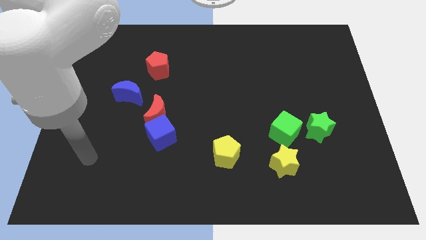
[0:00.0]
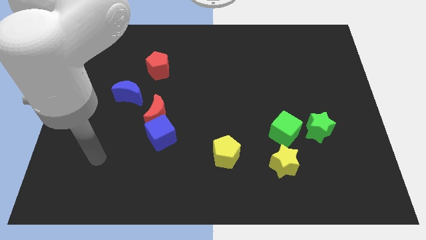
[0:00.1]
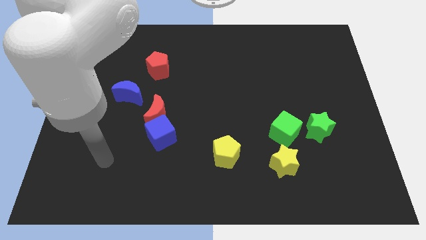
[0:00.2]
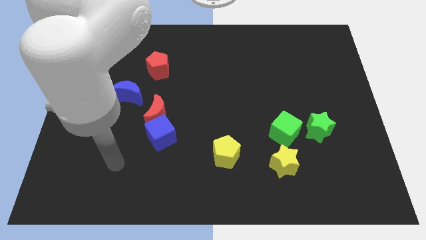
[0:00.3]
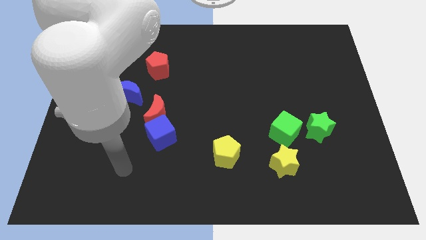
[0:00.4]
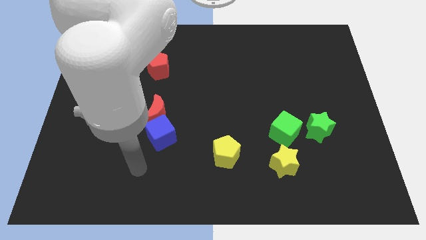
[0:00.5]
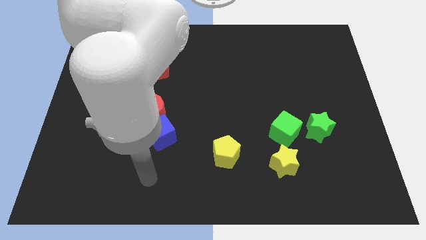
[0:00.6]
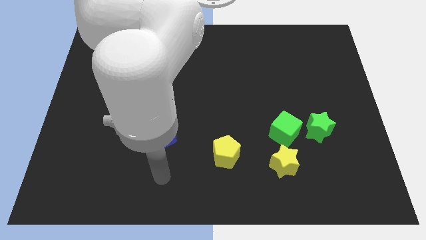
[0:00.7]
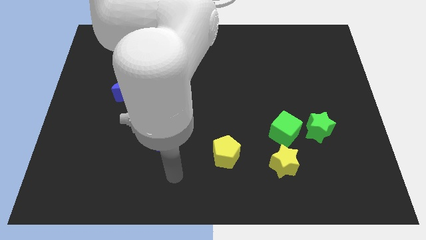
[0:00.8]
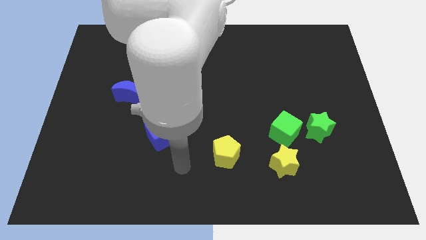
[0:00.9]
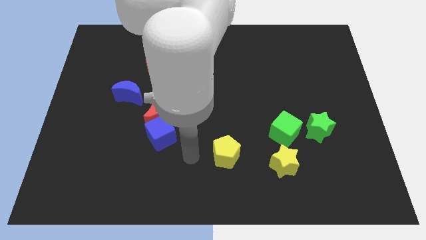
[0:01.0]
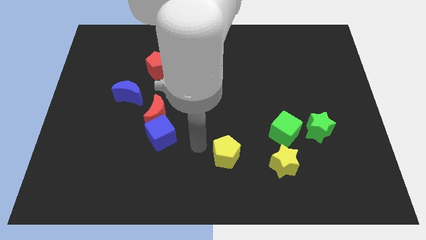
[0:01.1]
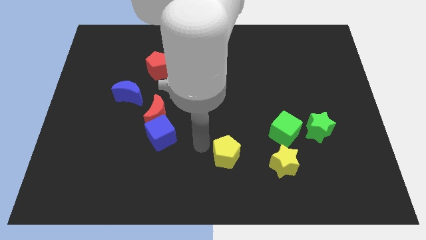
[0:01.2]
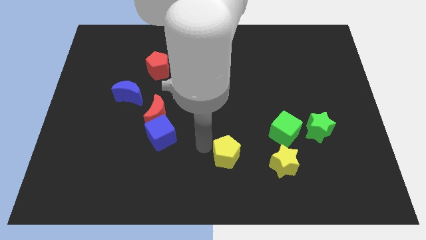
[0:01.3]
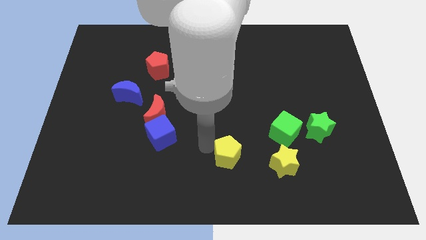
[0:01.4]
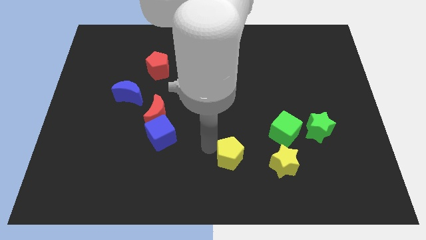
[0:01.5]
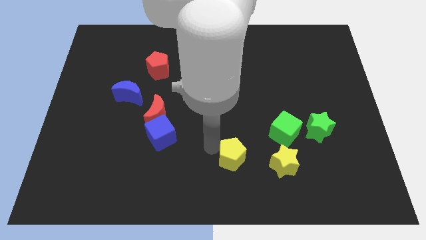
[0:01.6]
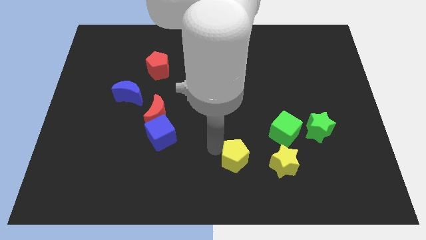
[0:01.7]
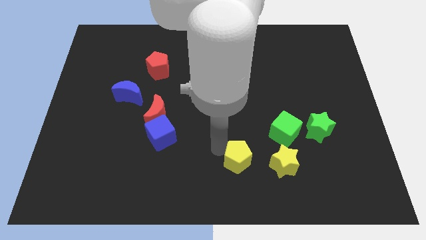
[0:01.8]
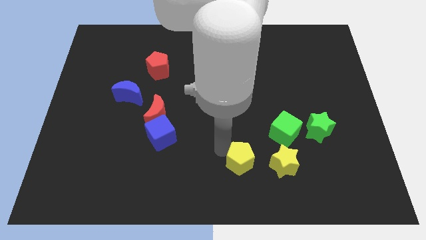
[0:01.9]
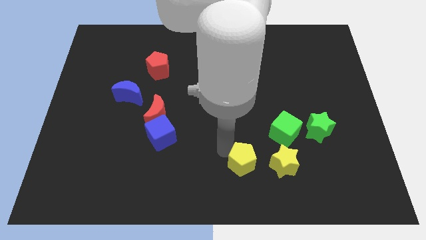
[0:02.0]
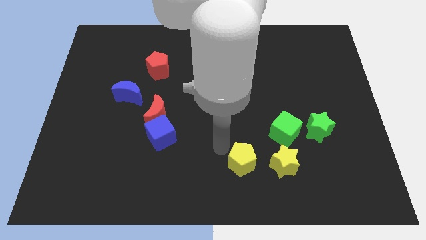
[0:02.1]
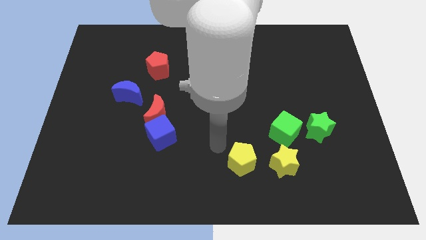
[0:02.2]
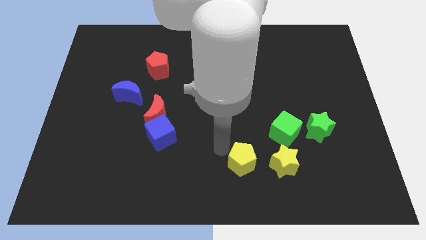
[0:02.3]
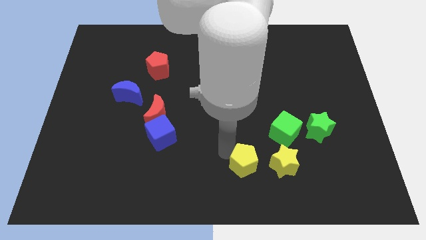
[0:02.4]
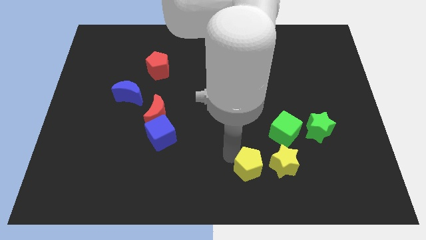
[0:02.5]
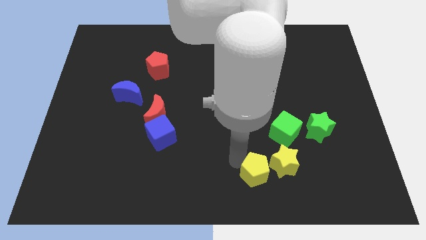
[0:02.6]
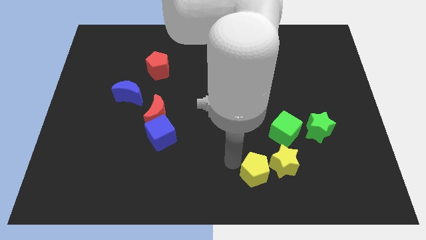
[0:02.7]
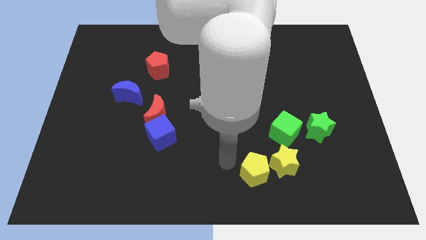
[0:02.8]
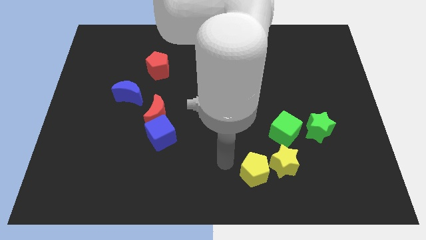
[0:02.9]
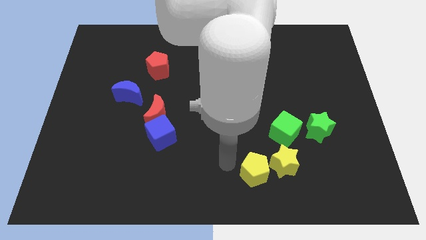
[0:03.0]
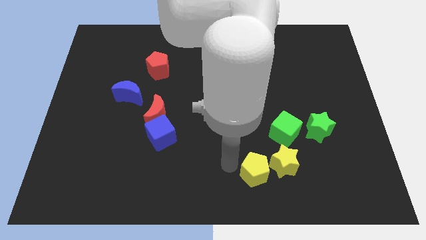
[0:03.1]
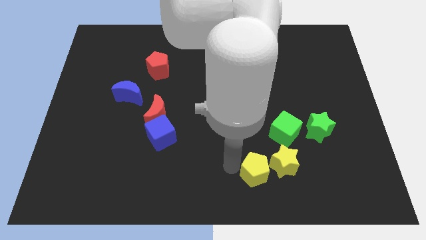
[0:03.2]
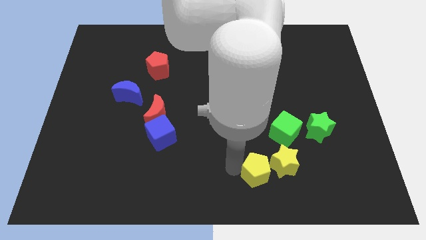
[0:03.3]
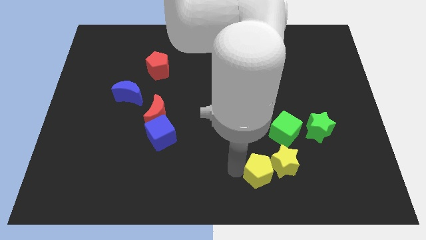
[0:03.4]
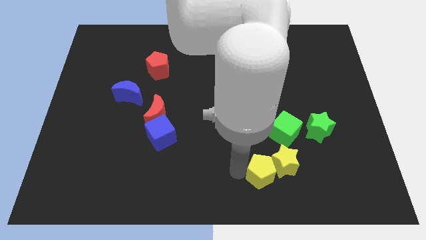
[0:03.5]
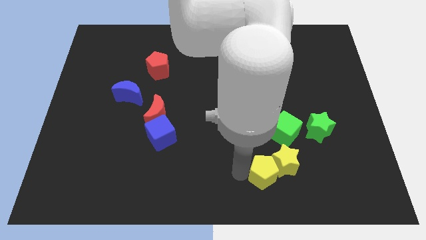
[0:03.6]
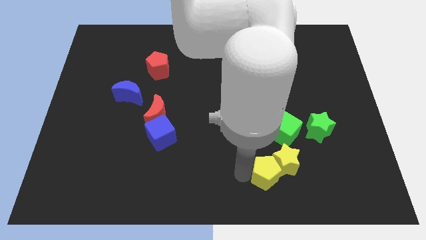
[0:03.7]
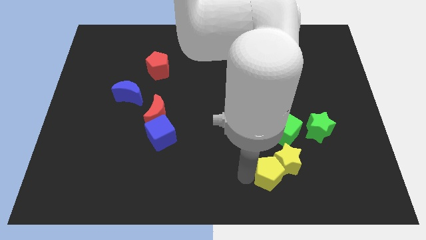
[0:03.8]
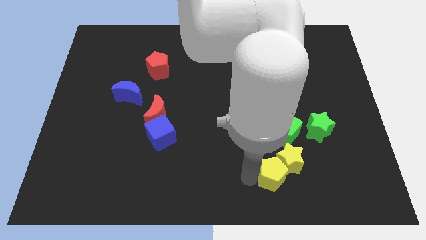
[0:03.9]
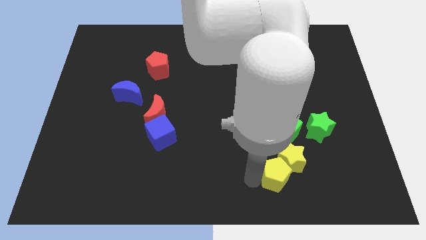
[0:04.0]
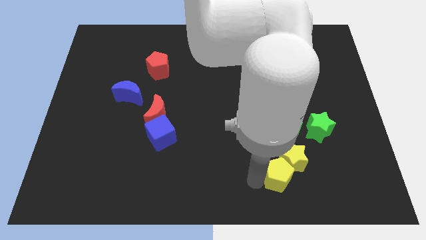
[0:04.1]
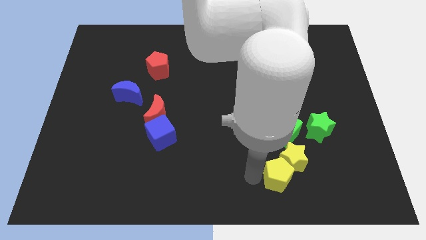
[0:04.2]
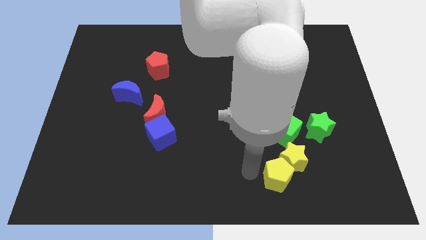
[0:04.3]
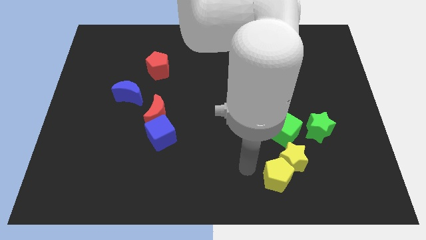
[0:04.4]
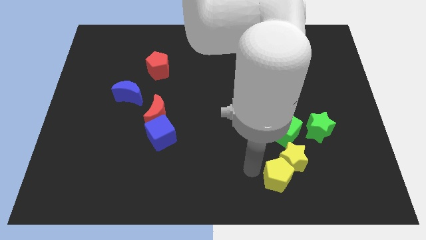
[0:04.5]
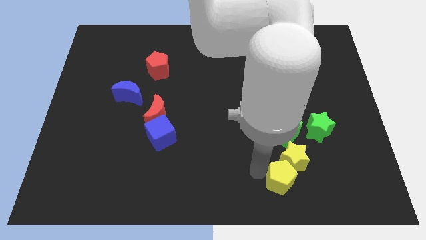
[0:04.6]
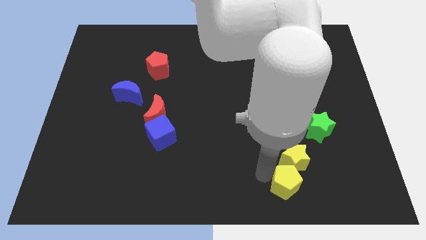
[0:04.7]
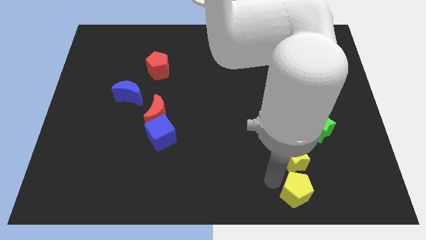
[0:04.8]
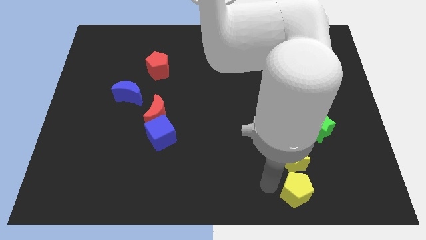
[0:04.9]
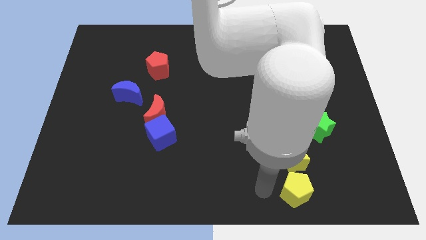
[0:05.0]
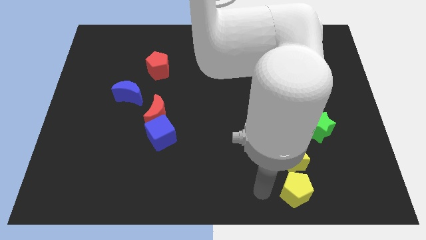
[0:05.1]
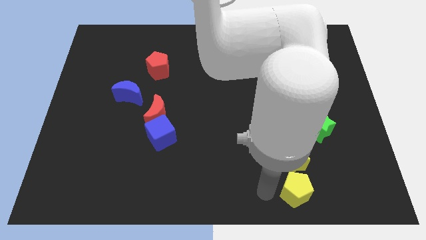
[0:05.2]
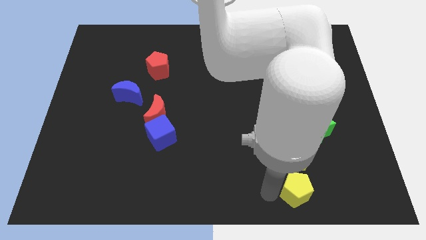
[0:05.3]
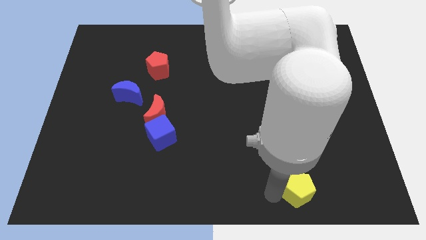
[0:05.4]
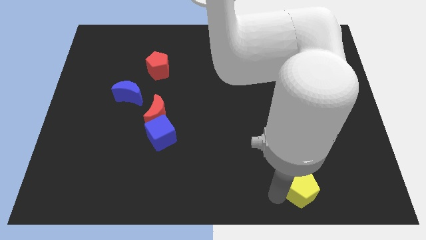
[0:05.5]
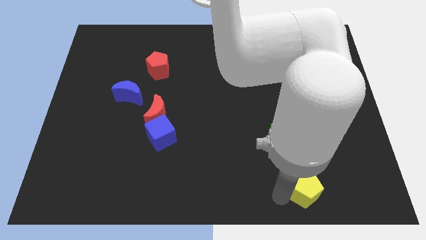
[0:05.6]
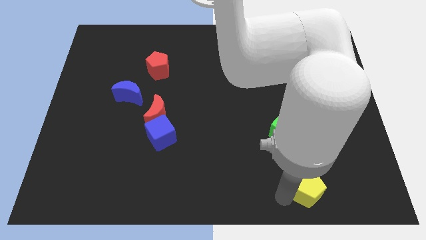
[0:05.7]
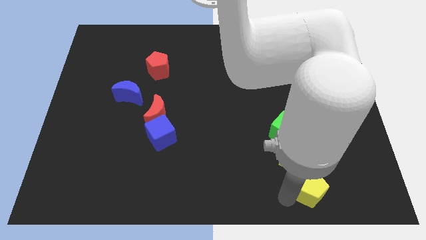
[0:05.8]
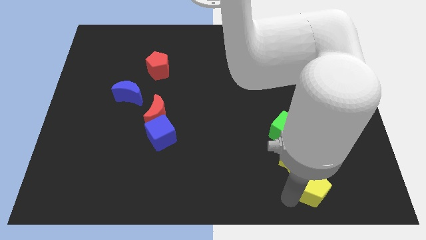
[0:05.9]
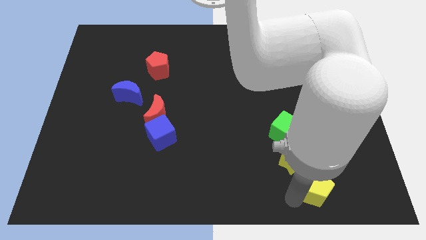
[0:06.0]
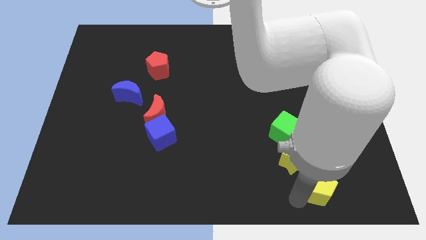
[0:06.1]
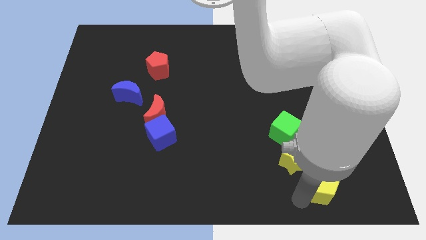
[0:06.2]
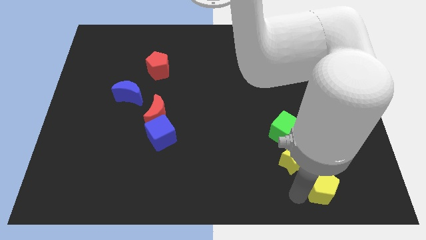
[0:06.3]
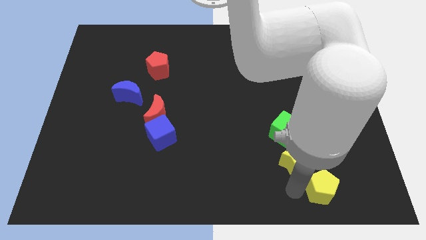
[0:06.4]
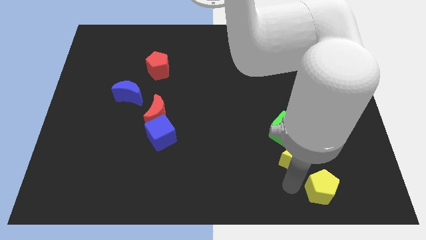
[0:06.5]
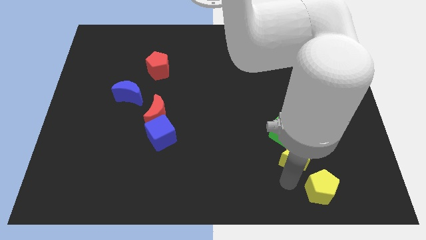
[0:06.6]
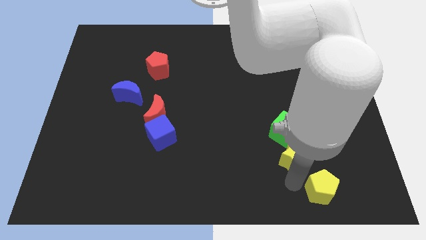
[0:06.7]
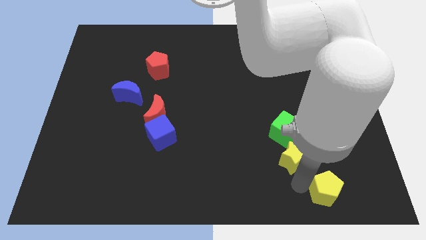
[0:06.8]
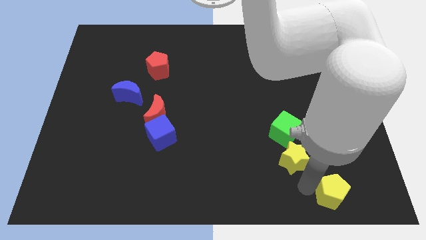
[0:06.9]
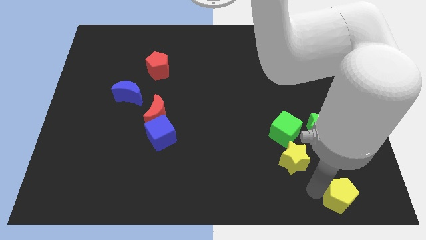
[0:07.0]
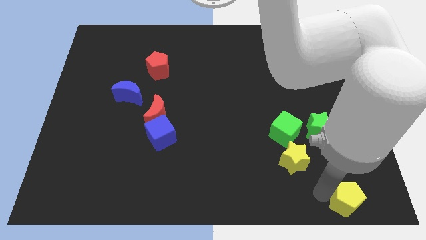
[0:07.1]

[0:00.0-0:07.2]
move the yellow pentagon to the lower right corner
